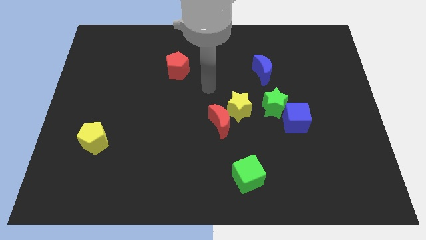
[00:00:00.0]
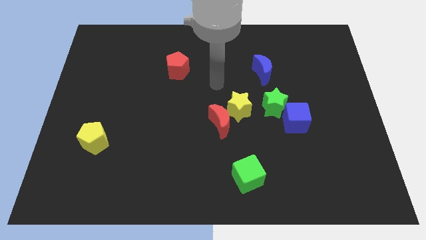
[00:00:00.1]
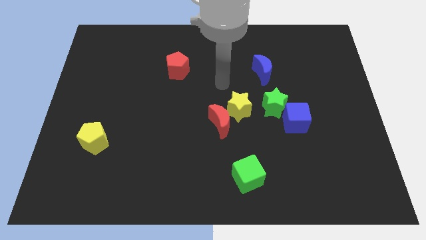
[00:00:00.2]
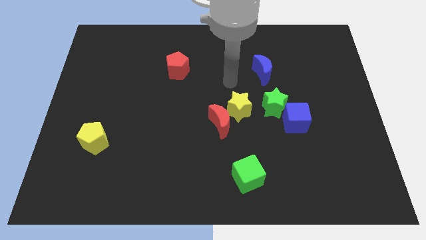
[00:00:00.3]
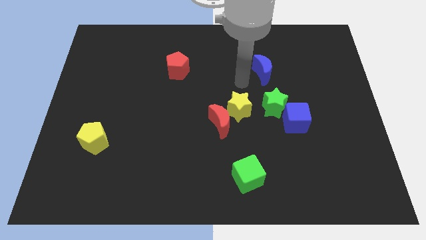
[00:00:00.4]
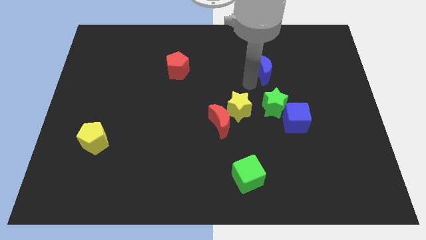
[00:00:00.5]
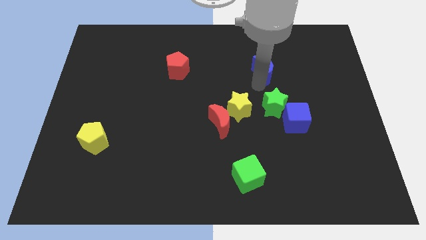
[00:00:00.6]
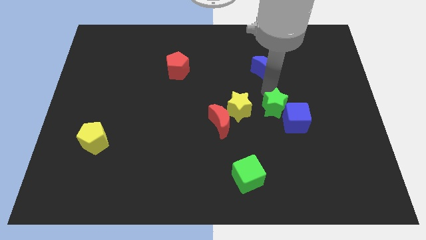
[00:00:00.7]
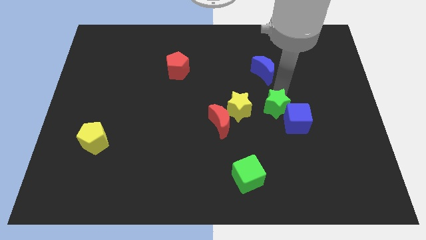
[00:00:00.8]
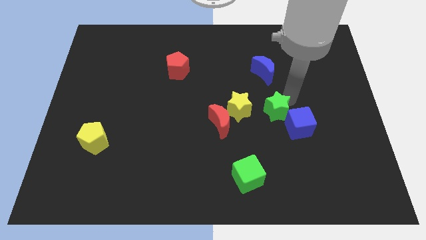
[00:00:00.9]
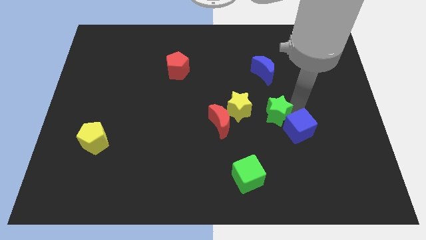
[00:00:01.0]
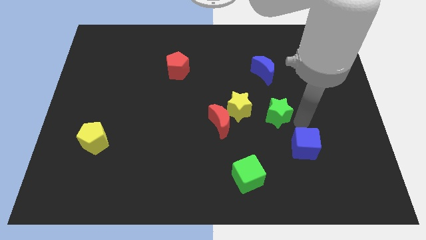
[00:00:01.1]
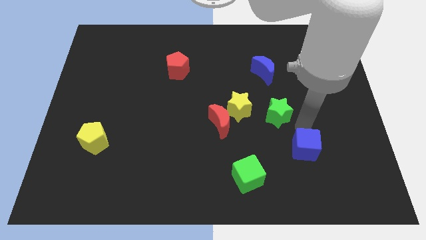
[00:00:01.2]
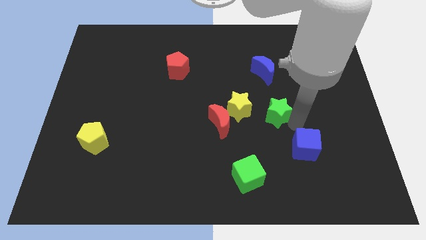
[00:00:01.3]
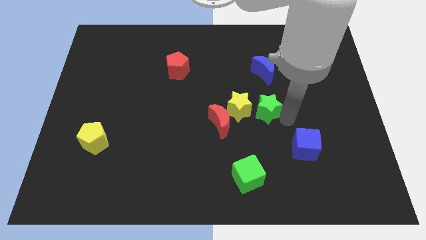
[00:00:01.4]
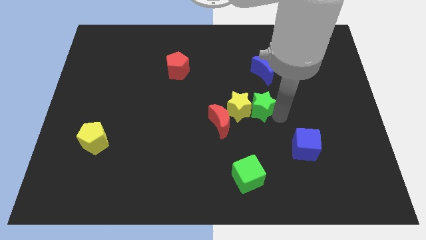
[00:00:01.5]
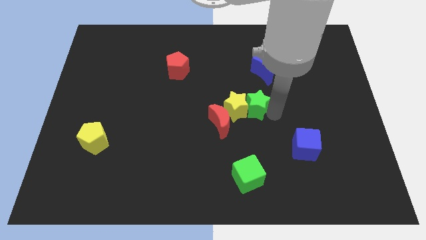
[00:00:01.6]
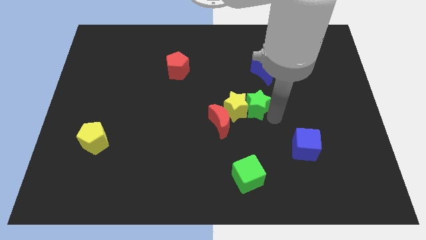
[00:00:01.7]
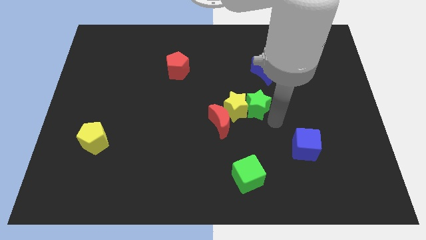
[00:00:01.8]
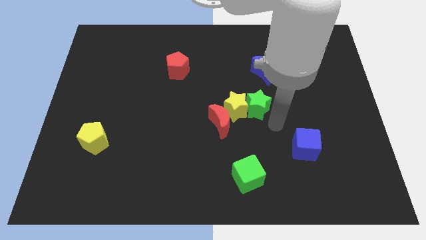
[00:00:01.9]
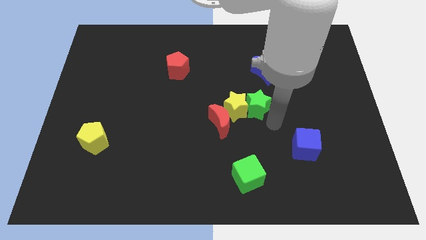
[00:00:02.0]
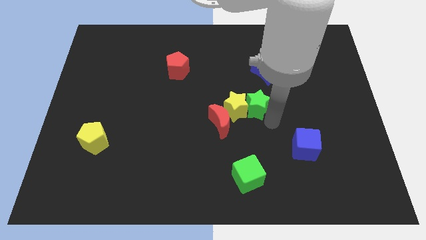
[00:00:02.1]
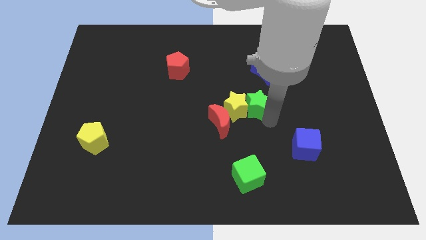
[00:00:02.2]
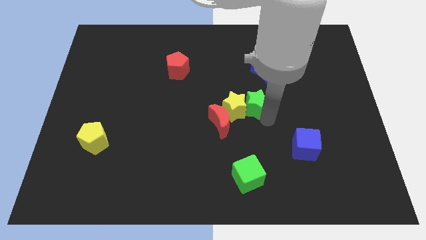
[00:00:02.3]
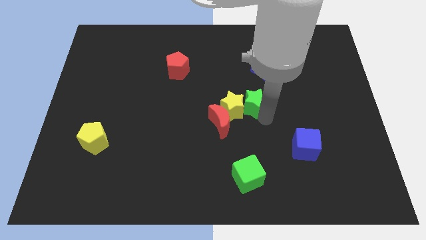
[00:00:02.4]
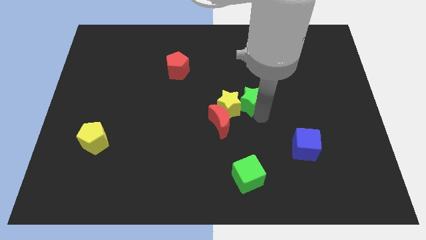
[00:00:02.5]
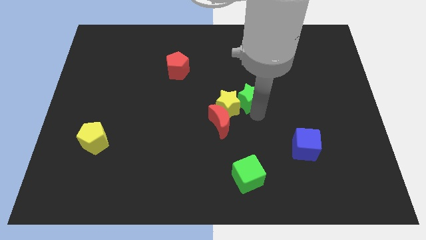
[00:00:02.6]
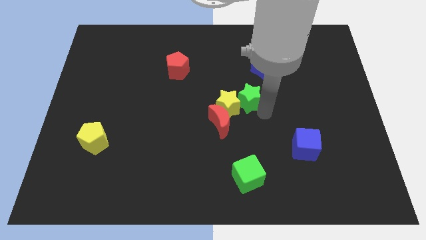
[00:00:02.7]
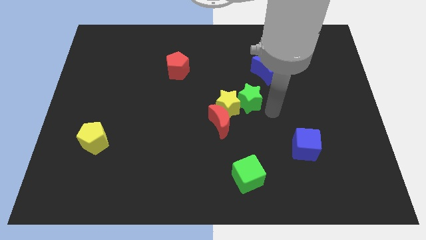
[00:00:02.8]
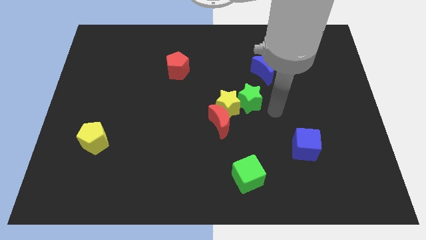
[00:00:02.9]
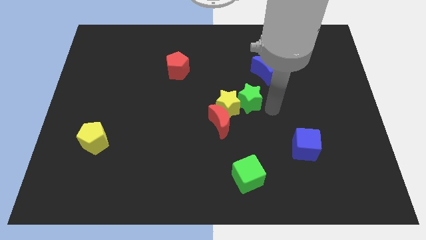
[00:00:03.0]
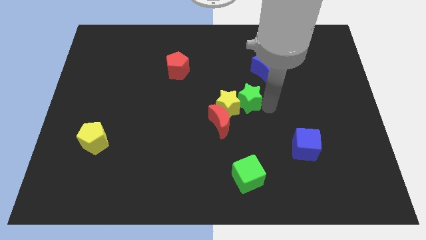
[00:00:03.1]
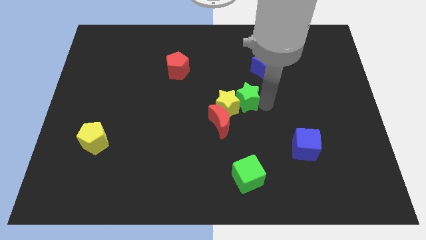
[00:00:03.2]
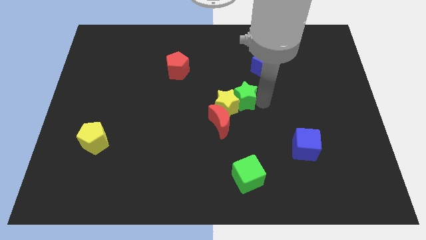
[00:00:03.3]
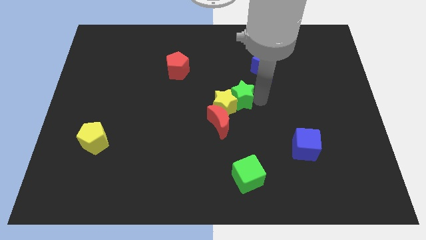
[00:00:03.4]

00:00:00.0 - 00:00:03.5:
slightly move the green star to the left

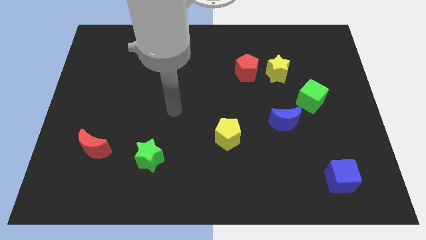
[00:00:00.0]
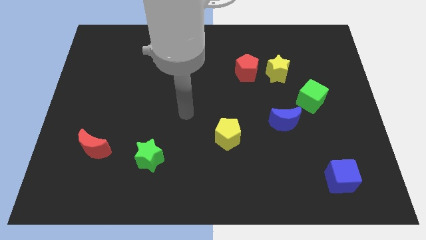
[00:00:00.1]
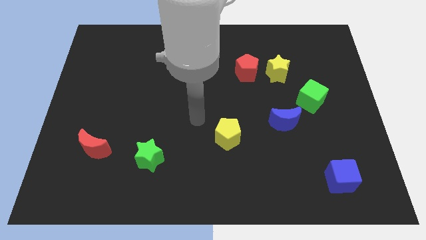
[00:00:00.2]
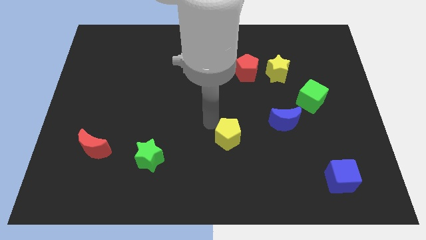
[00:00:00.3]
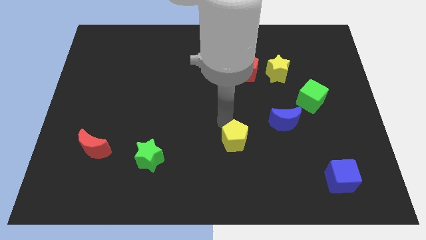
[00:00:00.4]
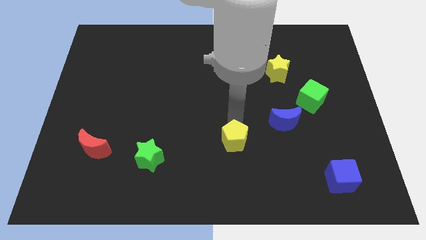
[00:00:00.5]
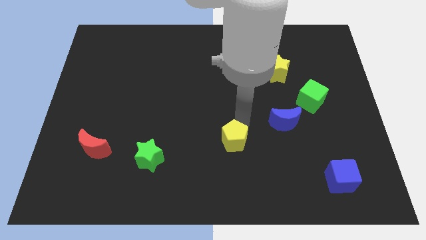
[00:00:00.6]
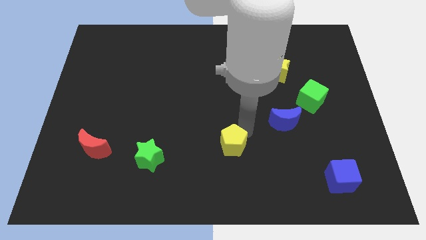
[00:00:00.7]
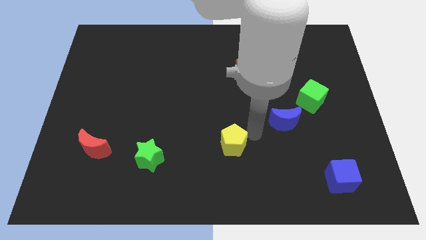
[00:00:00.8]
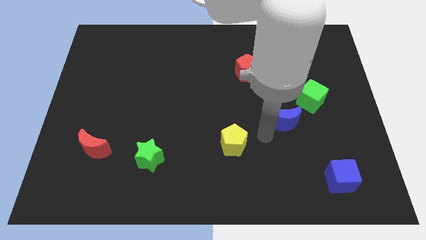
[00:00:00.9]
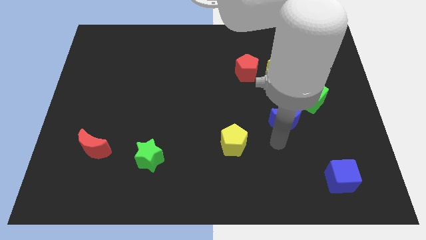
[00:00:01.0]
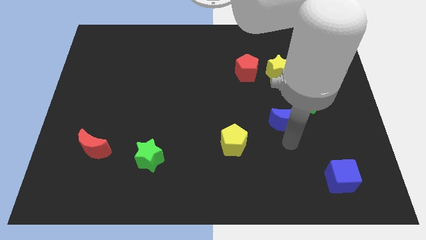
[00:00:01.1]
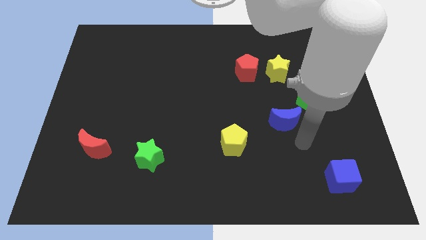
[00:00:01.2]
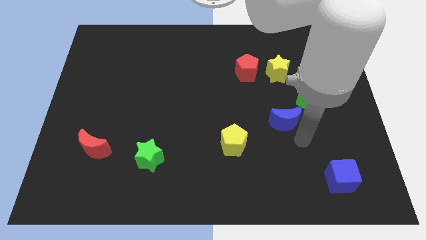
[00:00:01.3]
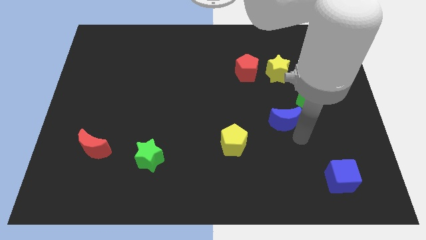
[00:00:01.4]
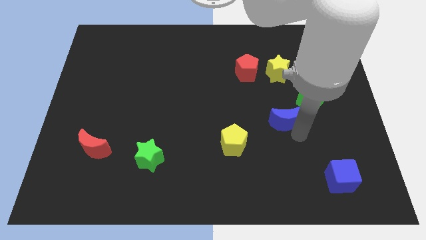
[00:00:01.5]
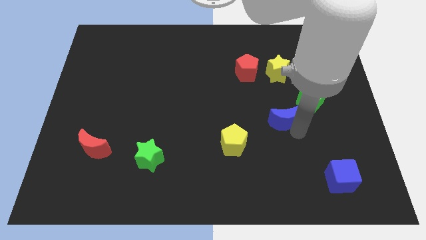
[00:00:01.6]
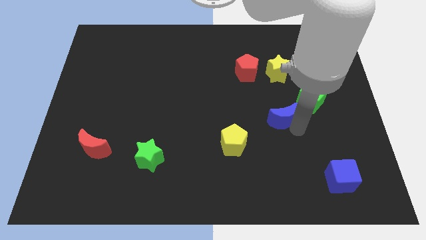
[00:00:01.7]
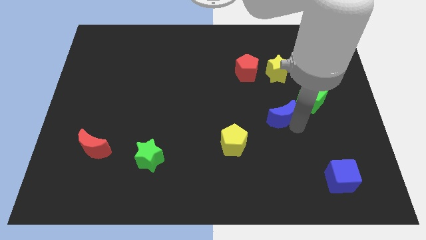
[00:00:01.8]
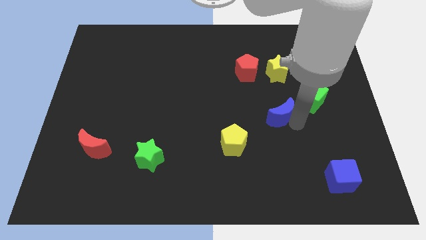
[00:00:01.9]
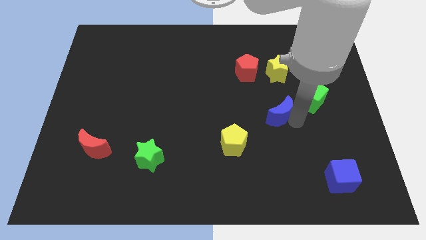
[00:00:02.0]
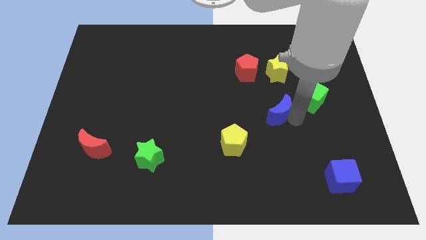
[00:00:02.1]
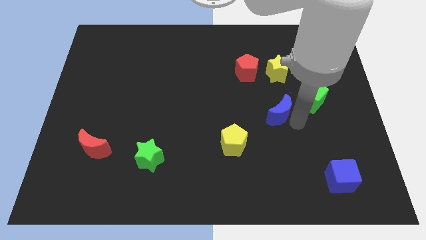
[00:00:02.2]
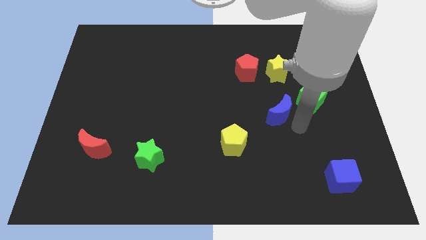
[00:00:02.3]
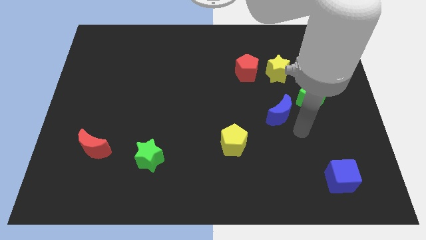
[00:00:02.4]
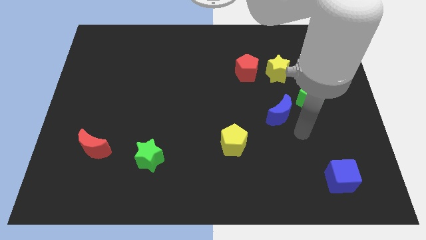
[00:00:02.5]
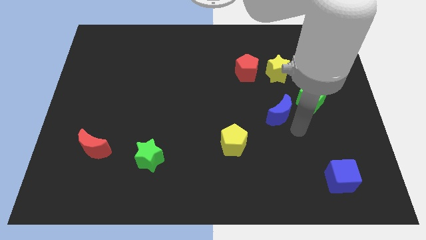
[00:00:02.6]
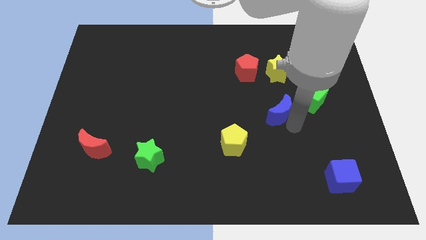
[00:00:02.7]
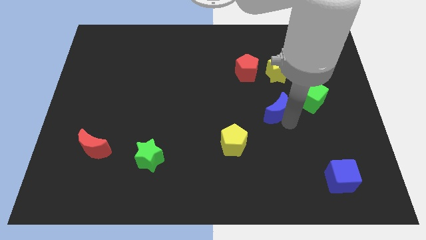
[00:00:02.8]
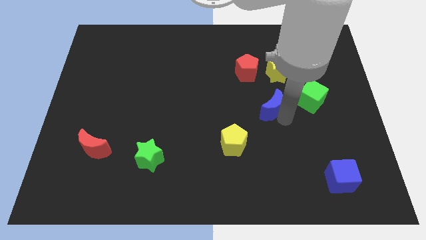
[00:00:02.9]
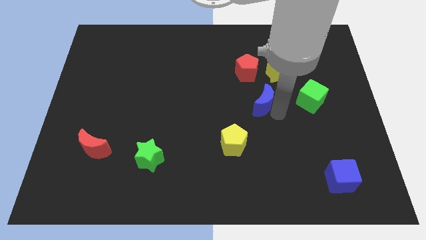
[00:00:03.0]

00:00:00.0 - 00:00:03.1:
push the blue moon a bit upwards and left

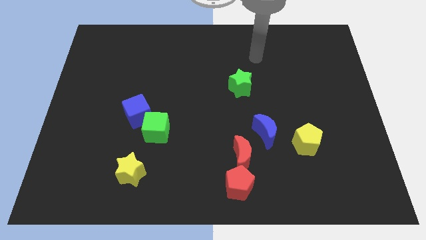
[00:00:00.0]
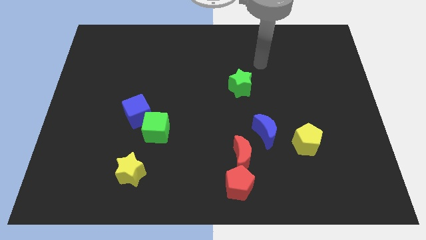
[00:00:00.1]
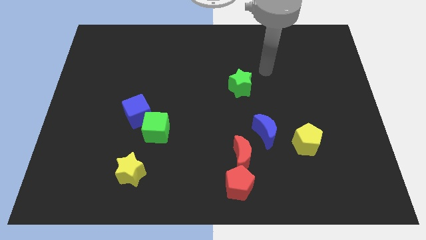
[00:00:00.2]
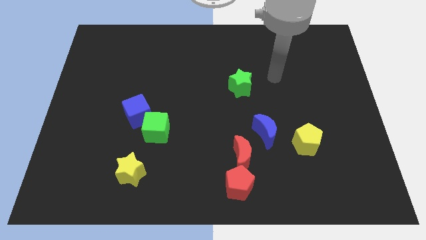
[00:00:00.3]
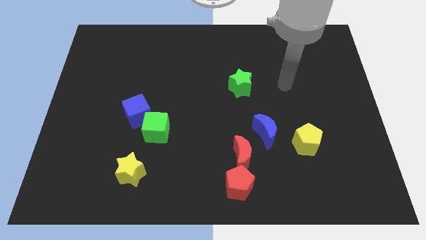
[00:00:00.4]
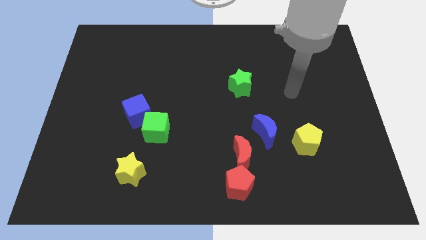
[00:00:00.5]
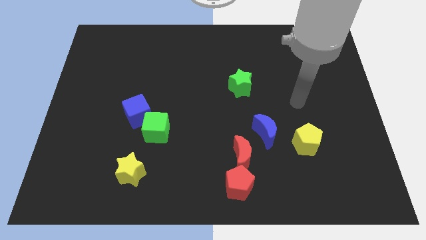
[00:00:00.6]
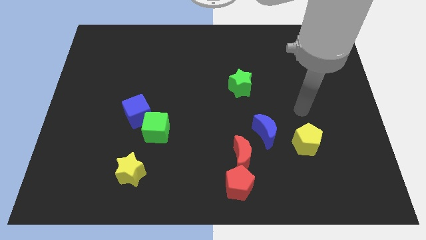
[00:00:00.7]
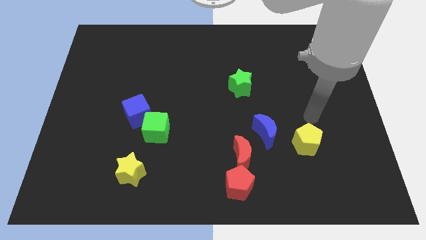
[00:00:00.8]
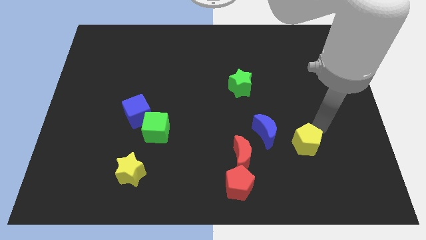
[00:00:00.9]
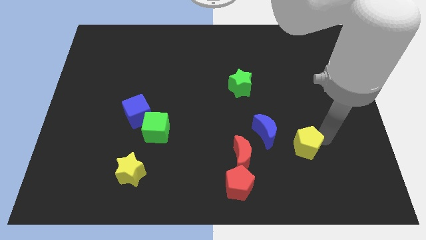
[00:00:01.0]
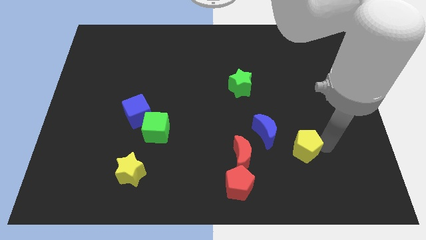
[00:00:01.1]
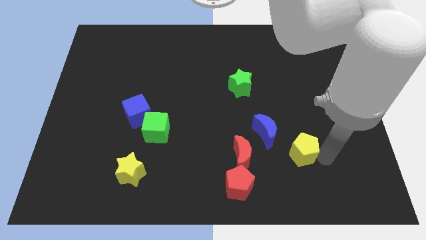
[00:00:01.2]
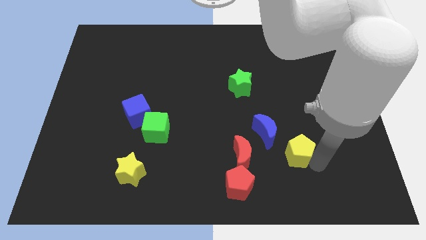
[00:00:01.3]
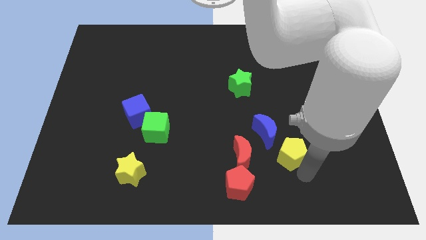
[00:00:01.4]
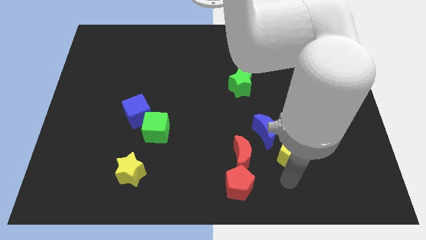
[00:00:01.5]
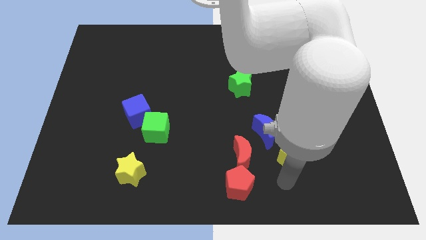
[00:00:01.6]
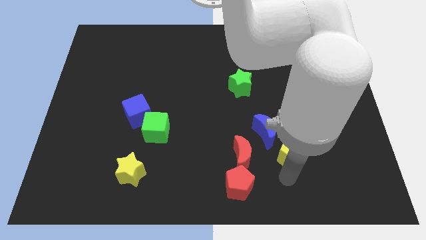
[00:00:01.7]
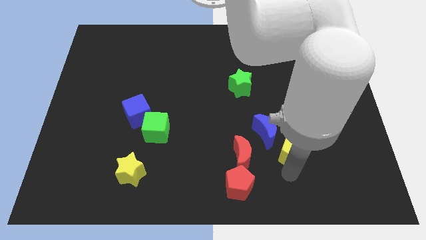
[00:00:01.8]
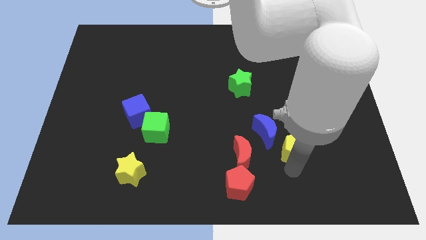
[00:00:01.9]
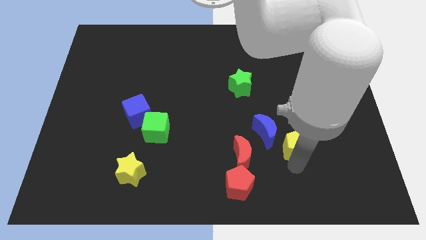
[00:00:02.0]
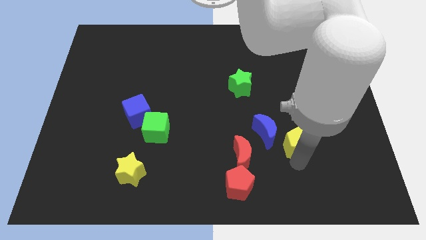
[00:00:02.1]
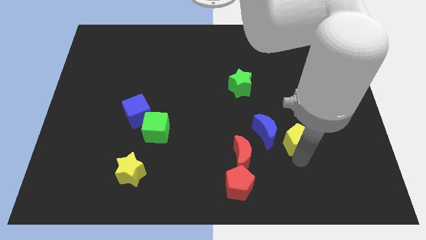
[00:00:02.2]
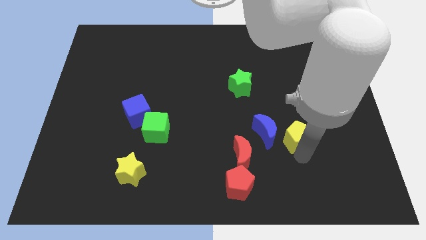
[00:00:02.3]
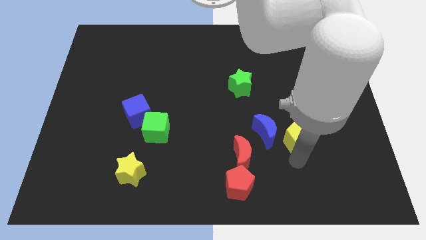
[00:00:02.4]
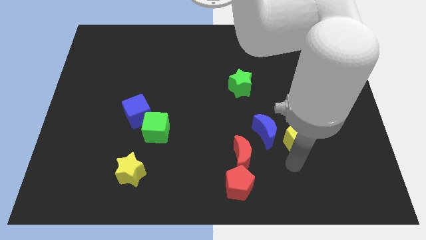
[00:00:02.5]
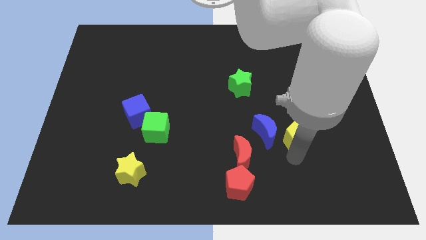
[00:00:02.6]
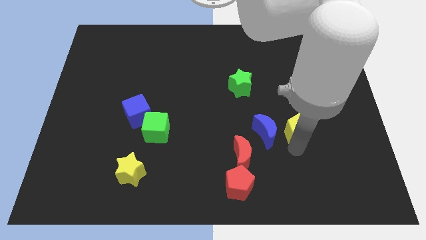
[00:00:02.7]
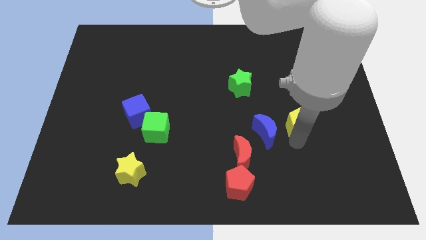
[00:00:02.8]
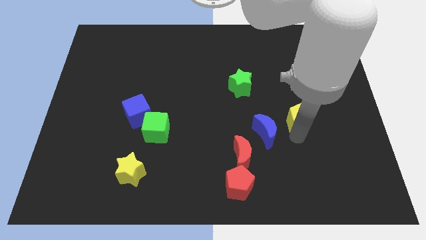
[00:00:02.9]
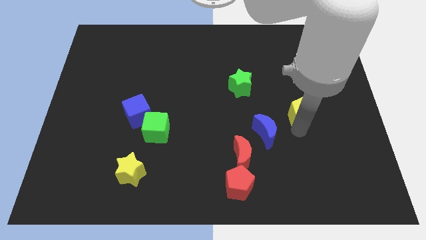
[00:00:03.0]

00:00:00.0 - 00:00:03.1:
push the yellow pentagon upwards somewhat
